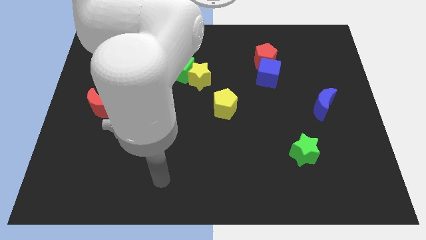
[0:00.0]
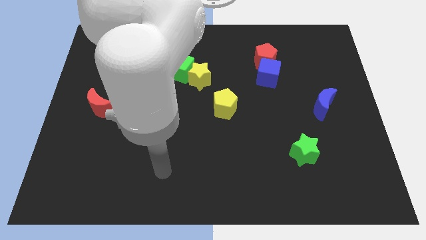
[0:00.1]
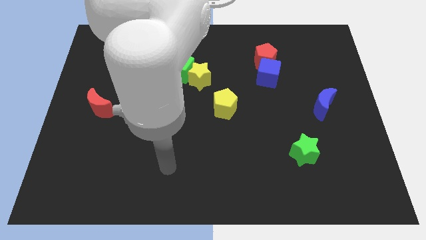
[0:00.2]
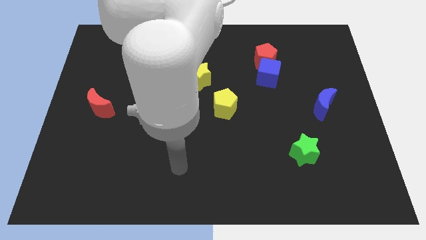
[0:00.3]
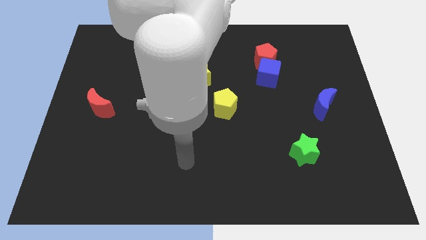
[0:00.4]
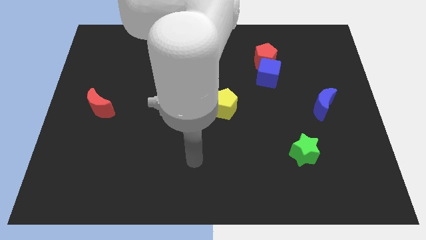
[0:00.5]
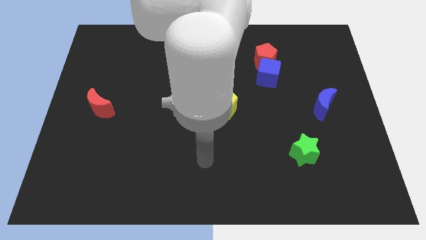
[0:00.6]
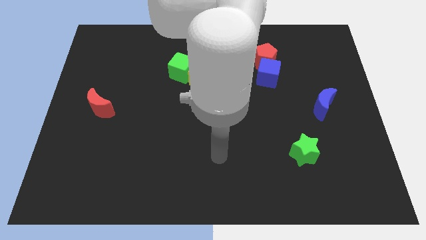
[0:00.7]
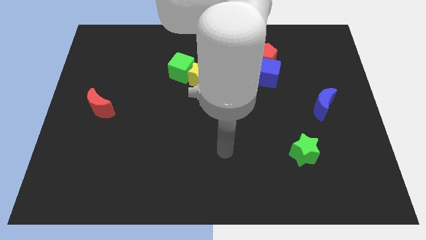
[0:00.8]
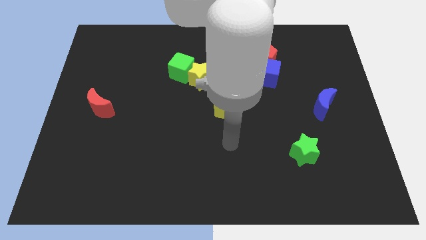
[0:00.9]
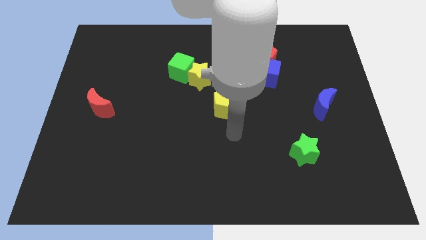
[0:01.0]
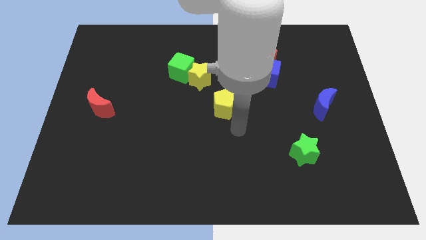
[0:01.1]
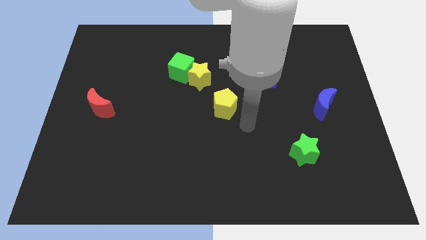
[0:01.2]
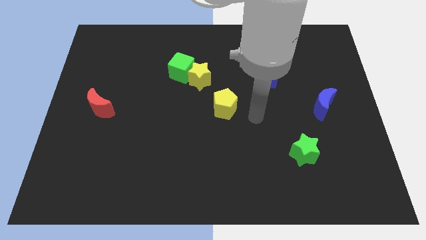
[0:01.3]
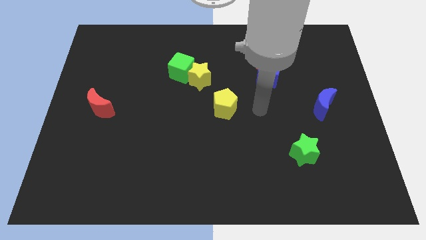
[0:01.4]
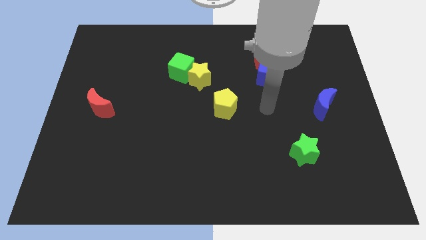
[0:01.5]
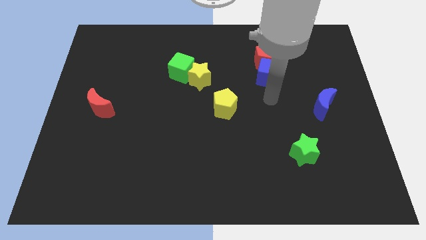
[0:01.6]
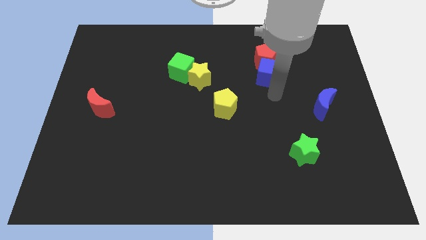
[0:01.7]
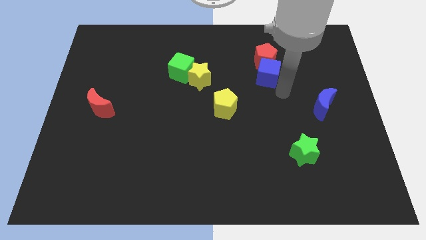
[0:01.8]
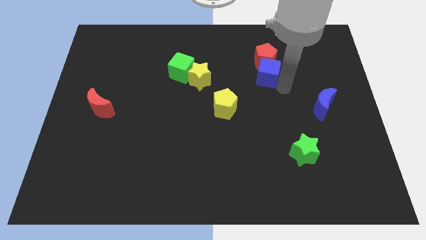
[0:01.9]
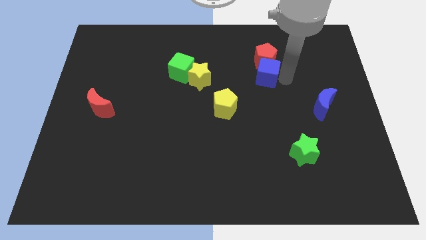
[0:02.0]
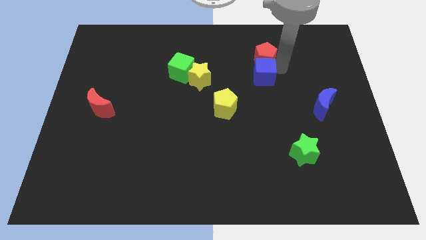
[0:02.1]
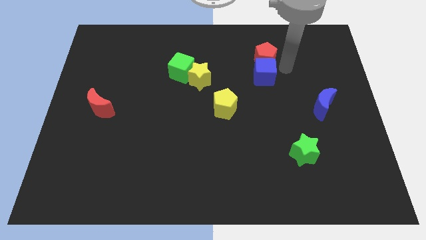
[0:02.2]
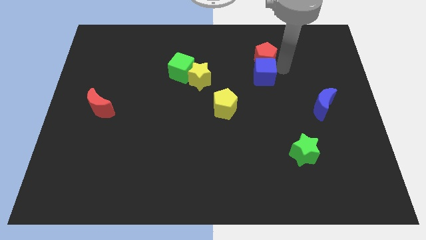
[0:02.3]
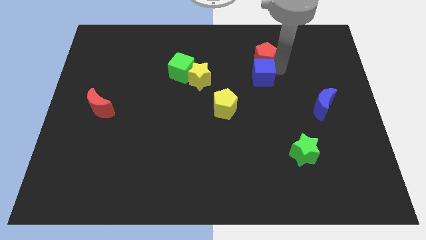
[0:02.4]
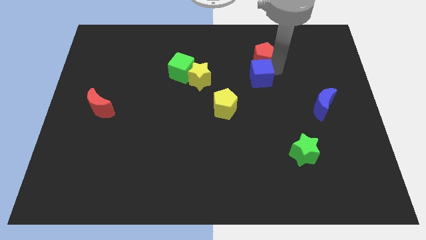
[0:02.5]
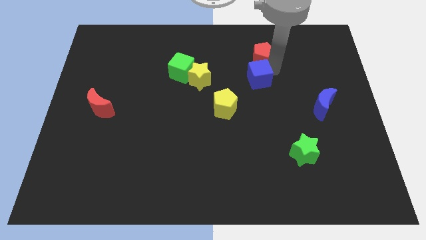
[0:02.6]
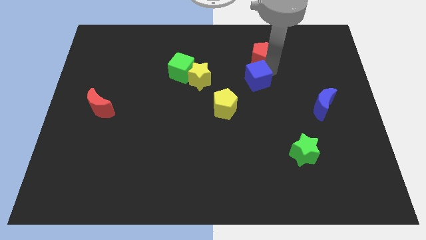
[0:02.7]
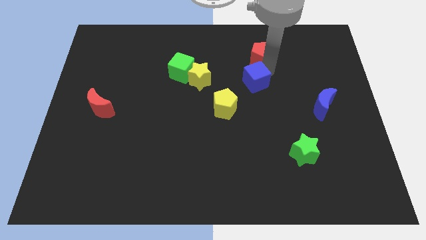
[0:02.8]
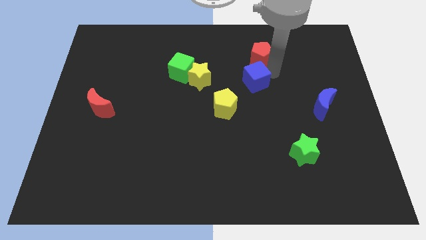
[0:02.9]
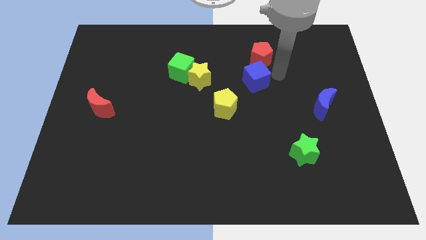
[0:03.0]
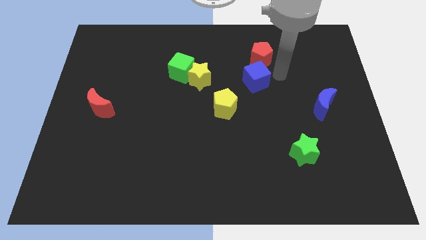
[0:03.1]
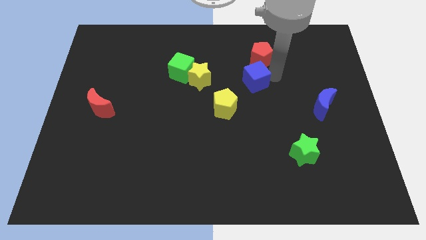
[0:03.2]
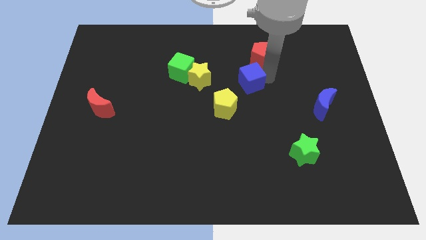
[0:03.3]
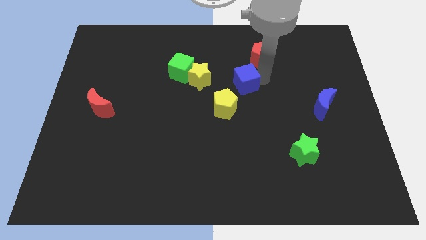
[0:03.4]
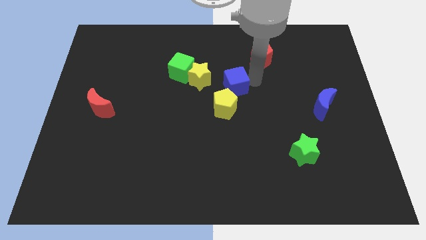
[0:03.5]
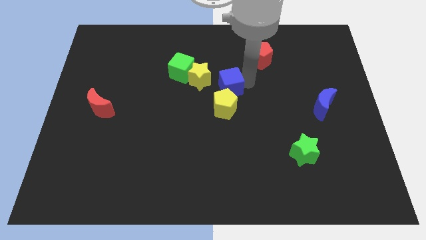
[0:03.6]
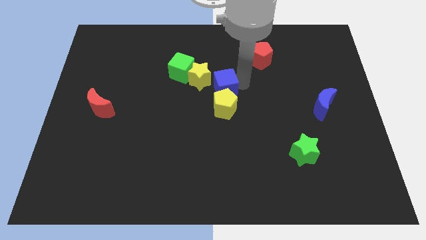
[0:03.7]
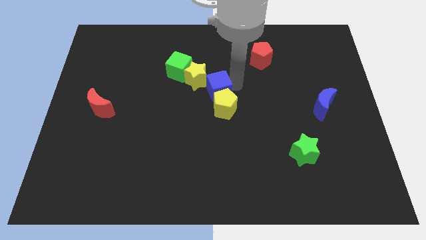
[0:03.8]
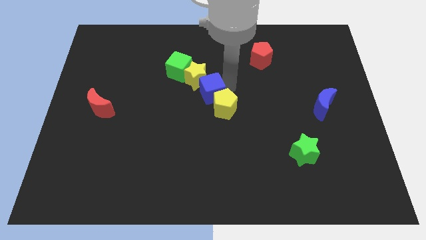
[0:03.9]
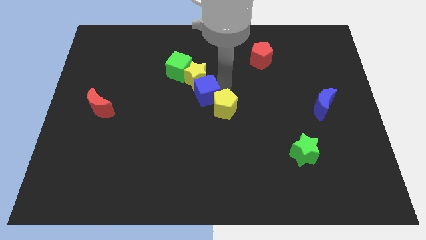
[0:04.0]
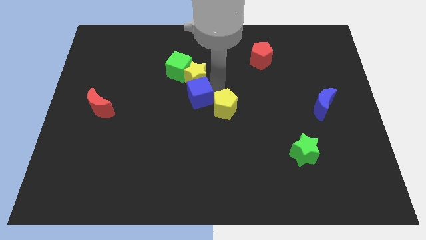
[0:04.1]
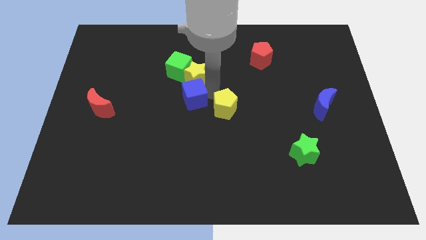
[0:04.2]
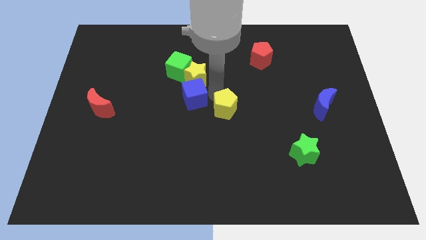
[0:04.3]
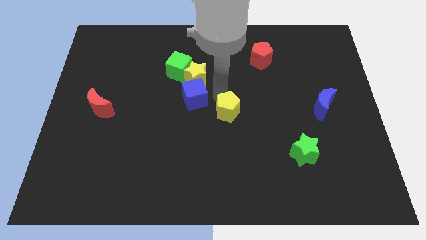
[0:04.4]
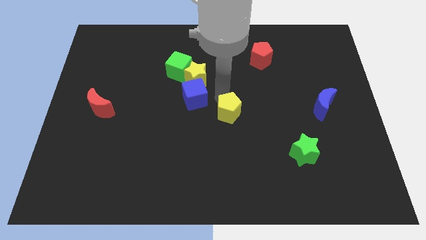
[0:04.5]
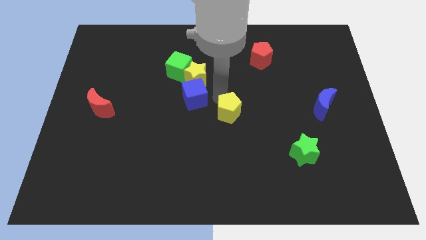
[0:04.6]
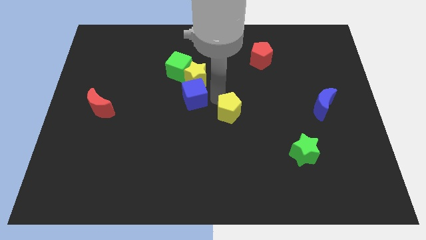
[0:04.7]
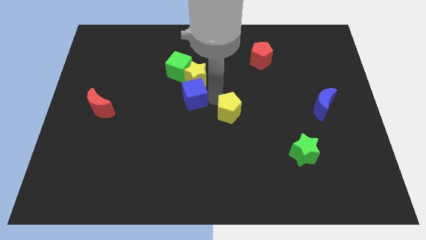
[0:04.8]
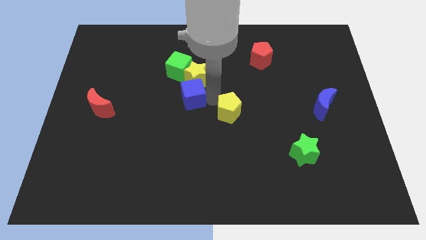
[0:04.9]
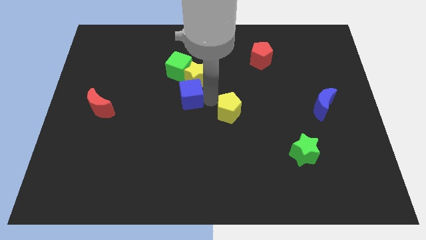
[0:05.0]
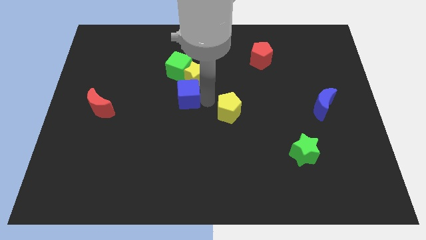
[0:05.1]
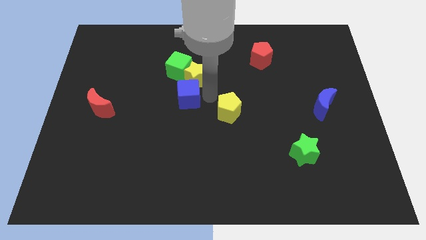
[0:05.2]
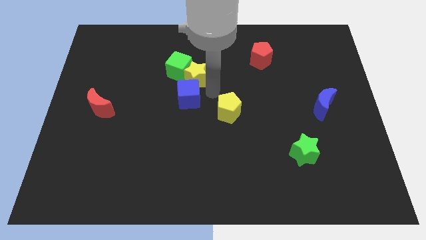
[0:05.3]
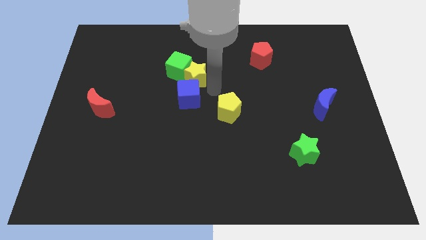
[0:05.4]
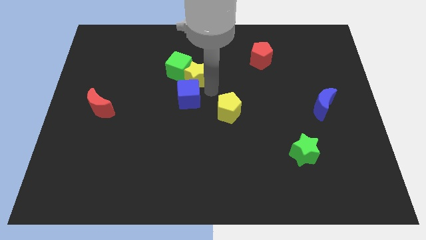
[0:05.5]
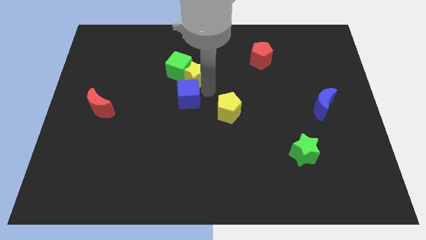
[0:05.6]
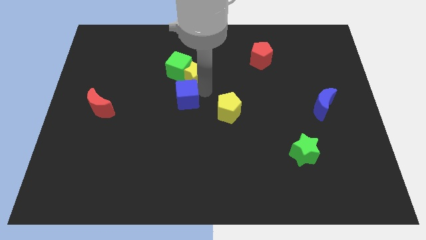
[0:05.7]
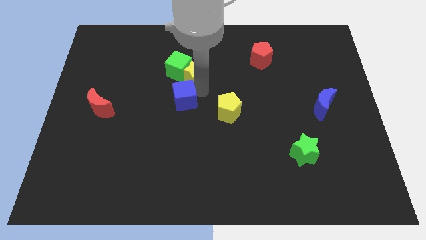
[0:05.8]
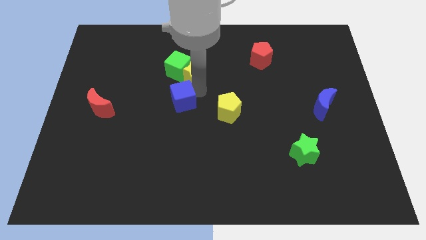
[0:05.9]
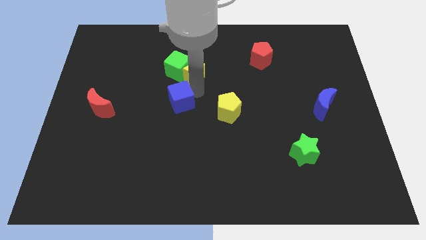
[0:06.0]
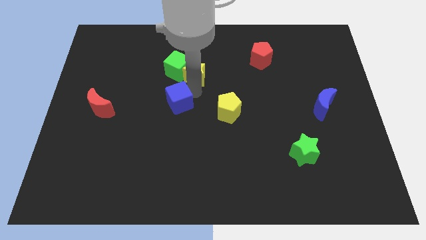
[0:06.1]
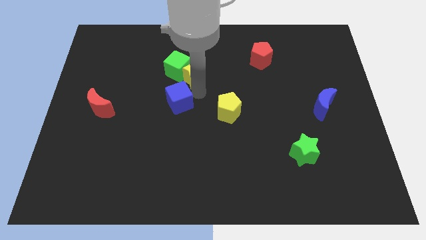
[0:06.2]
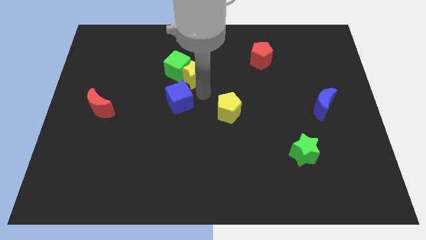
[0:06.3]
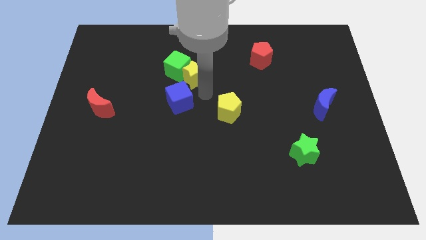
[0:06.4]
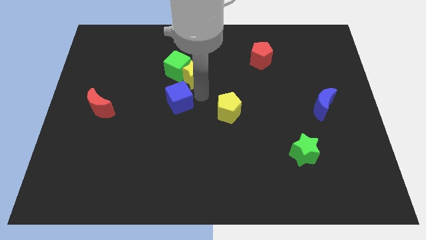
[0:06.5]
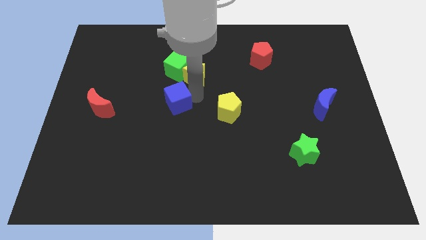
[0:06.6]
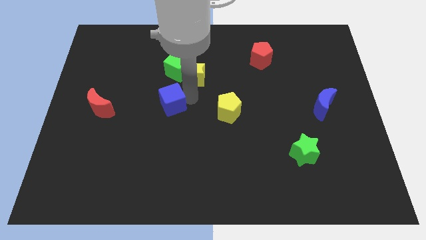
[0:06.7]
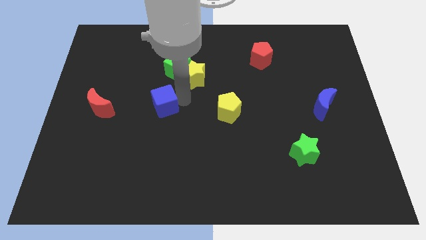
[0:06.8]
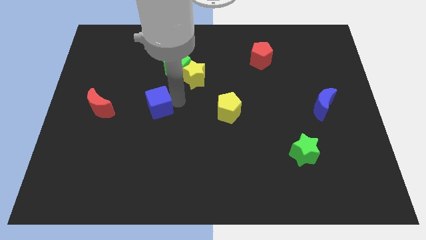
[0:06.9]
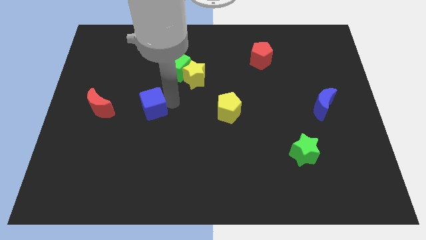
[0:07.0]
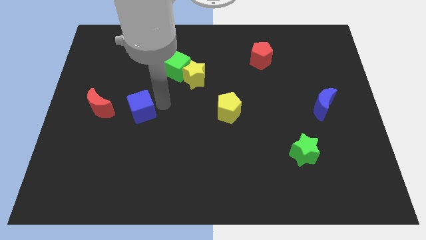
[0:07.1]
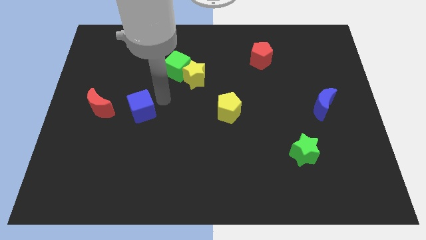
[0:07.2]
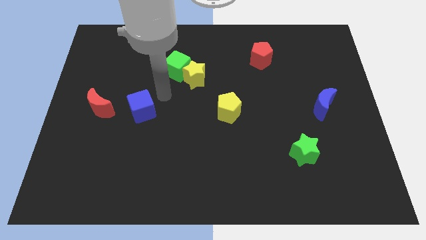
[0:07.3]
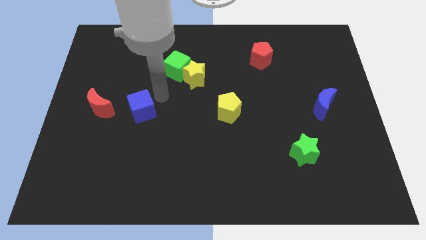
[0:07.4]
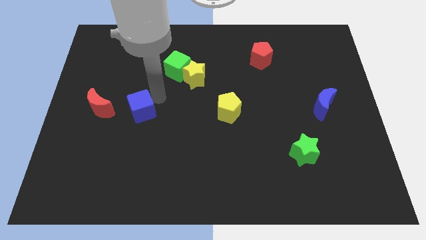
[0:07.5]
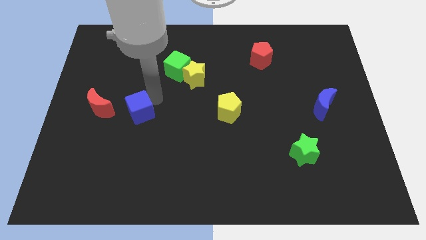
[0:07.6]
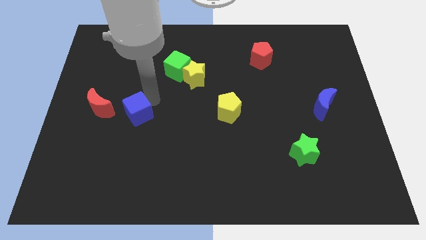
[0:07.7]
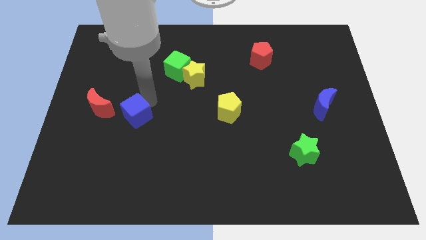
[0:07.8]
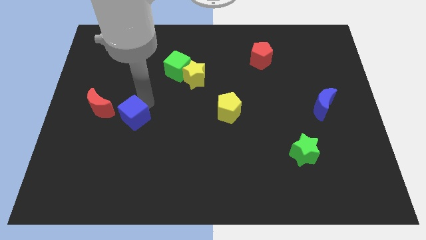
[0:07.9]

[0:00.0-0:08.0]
put the blue cube diagonally down and to the right of the red moon
